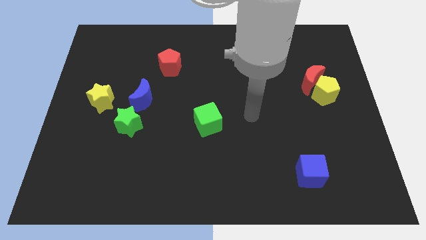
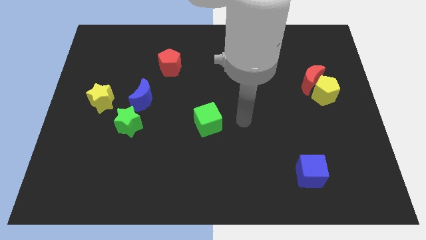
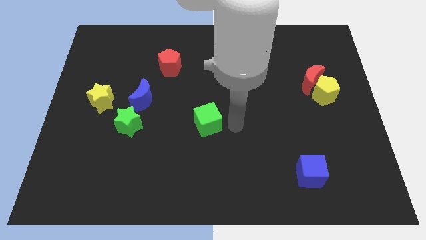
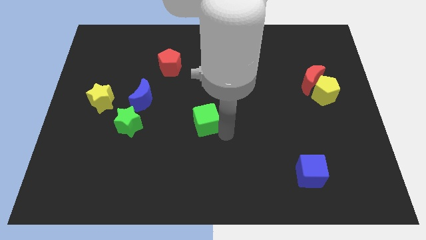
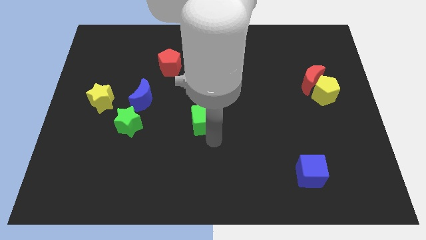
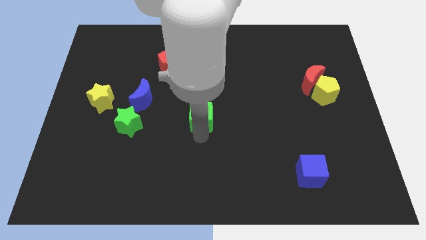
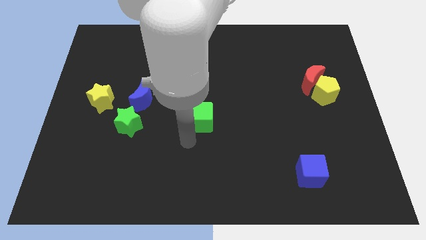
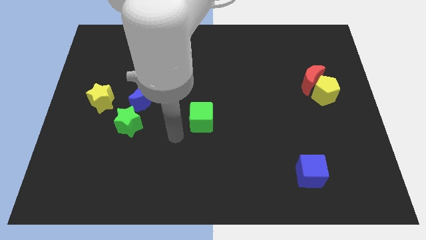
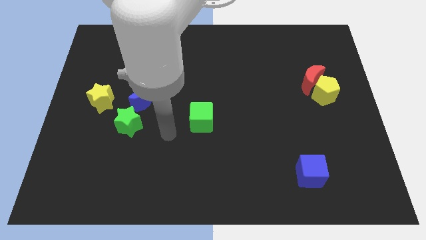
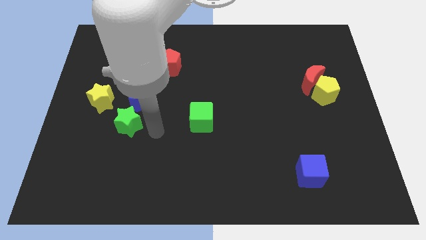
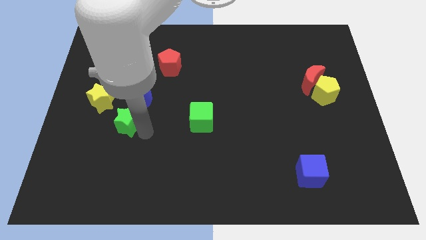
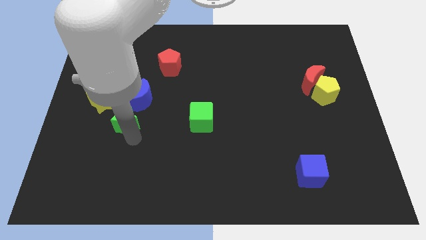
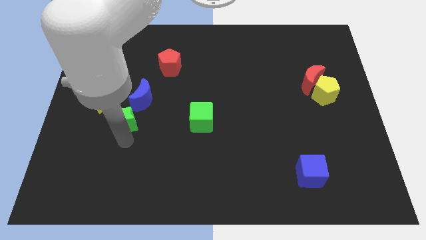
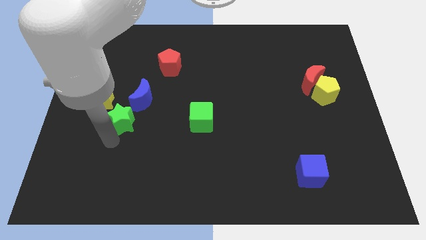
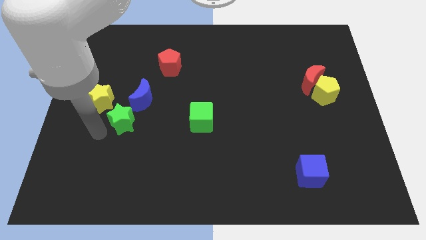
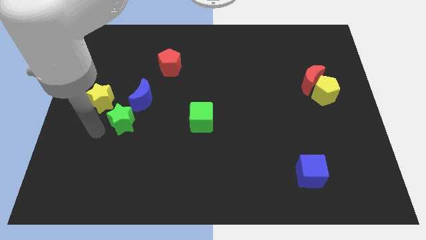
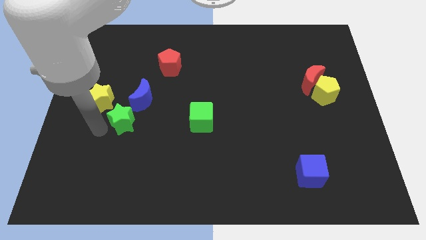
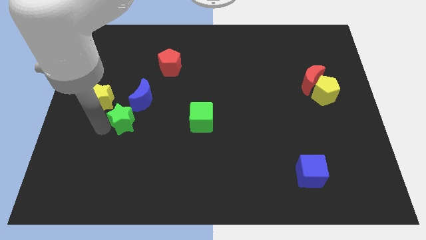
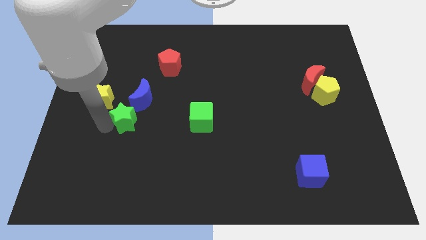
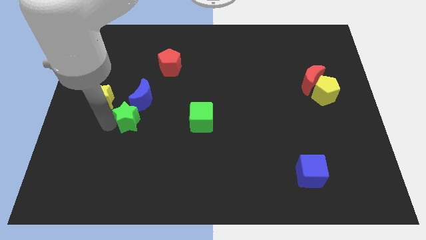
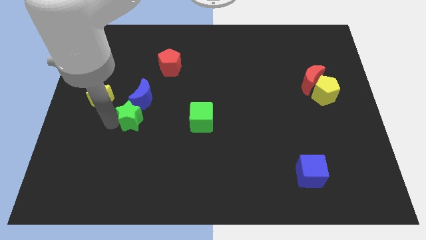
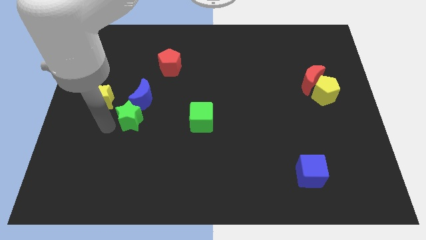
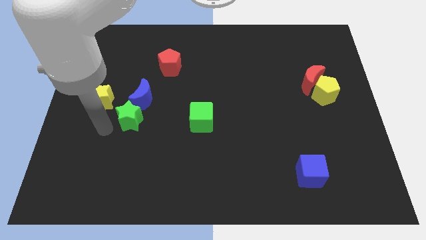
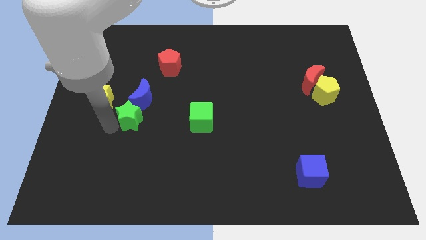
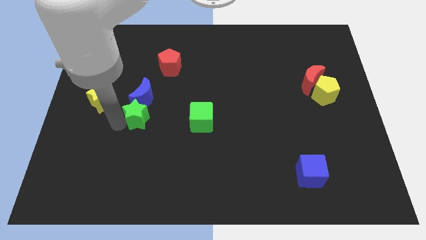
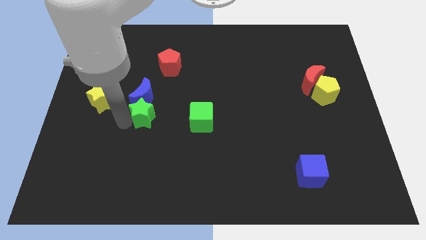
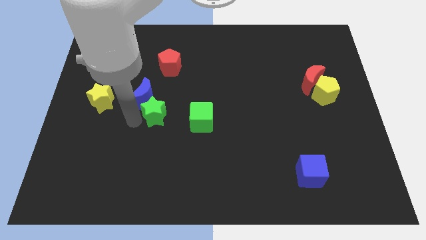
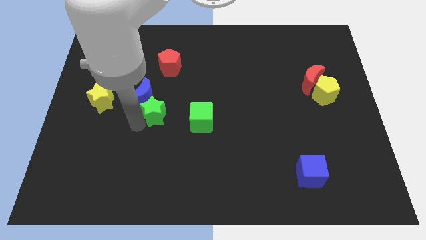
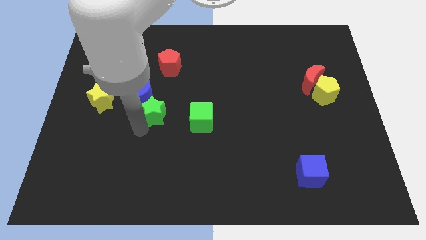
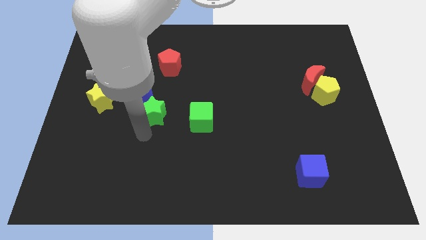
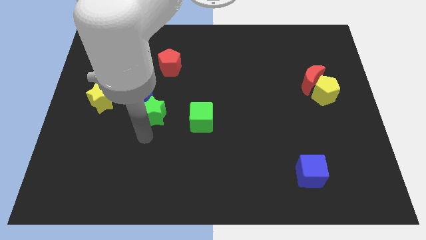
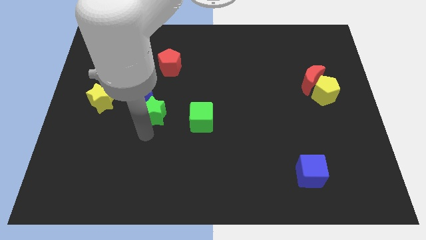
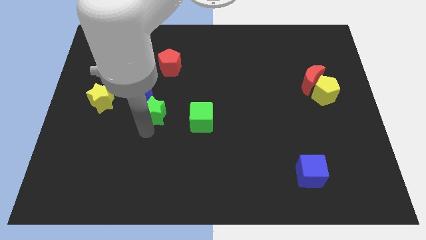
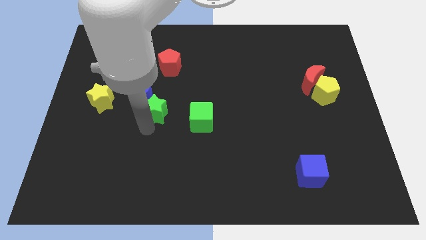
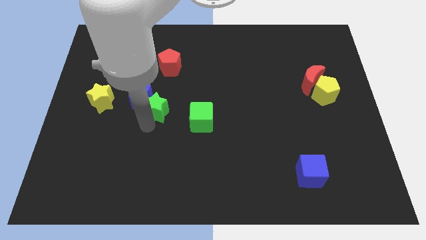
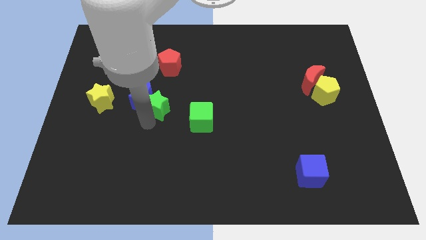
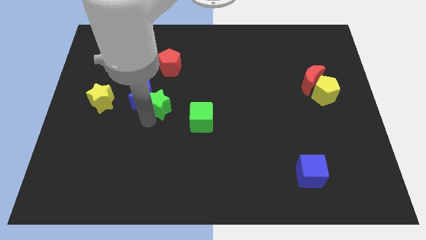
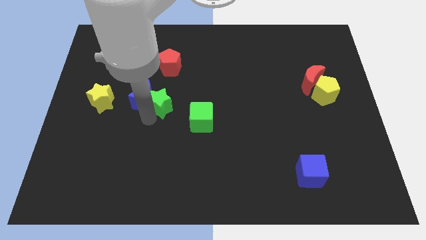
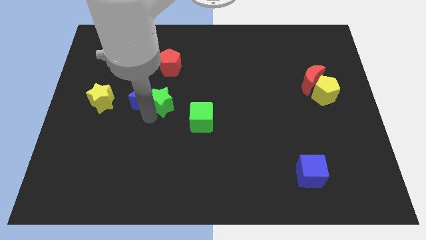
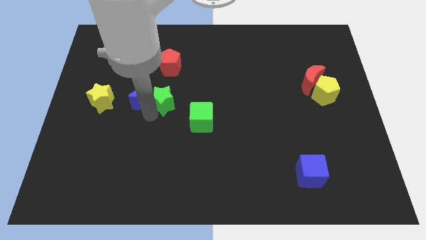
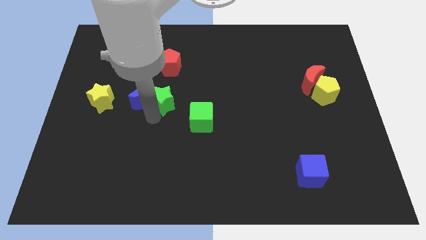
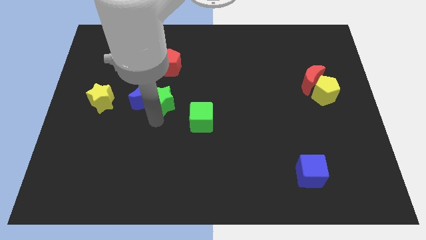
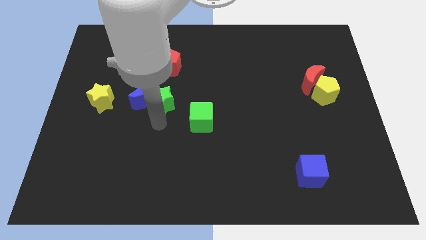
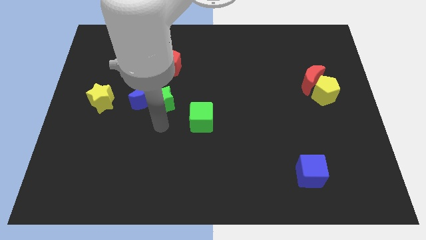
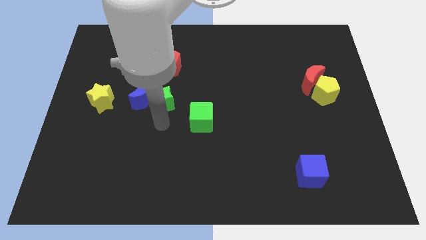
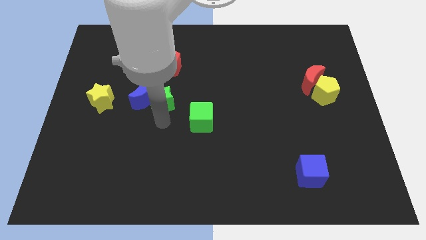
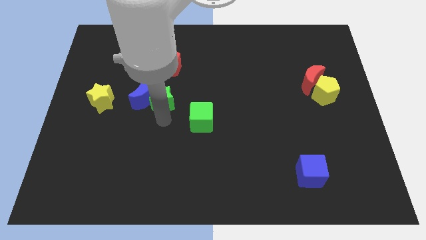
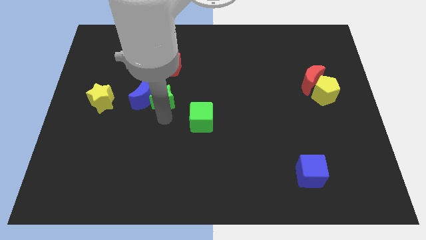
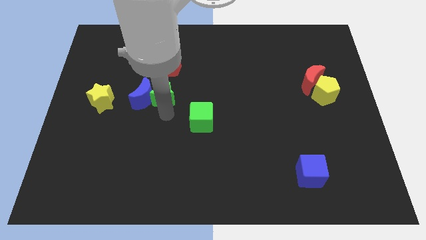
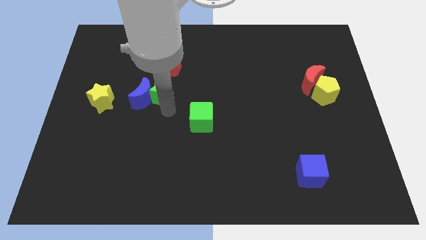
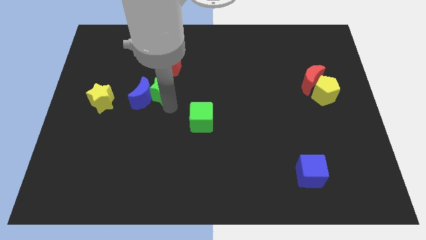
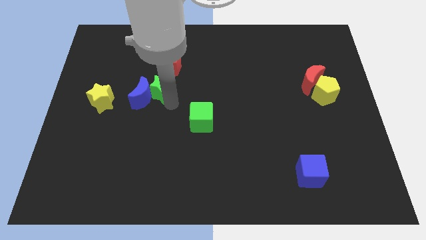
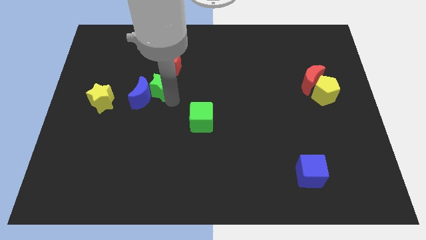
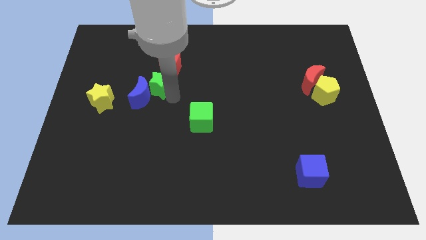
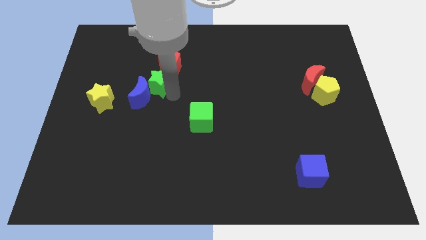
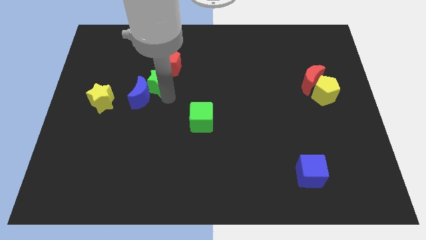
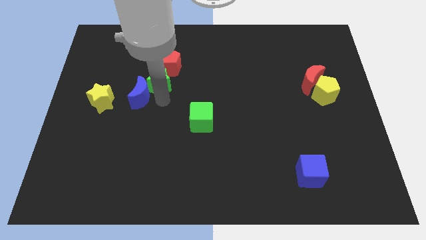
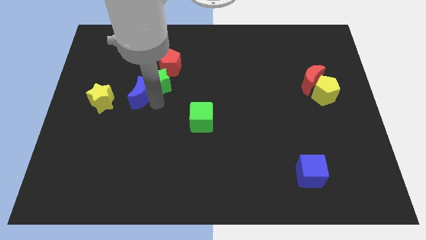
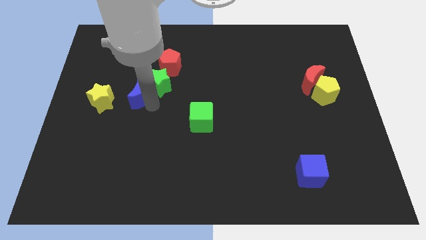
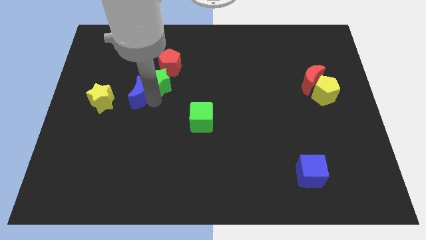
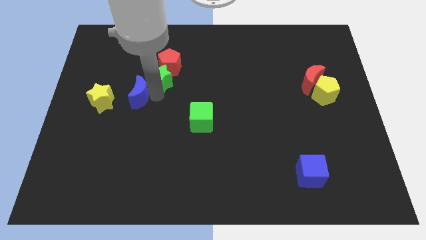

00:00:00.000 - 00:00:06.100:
push the green star towards the red pentagon
